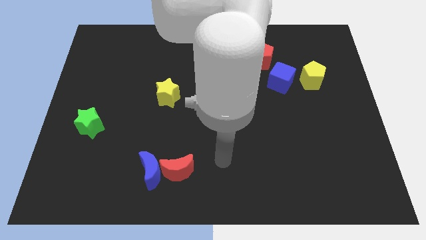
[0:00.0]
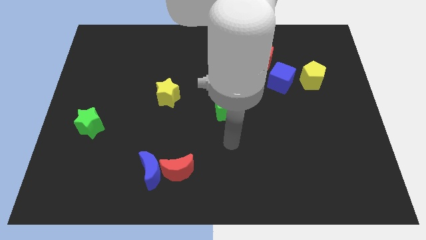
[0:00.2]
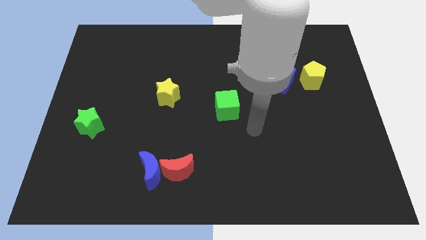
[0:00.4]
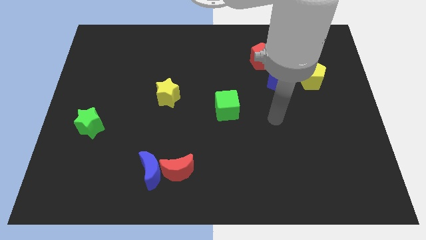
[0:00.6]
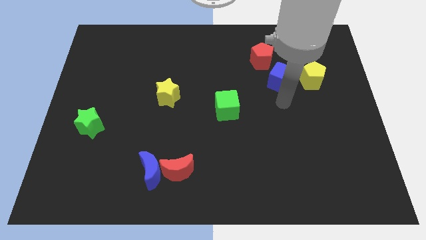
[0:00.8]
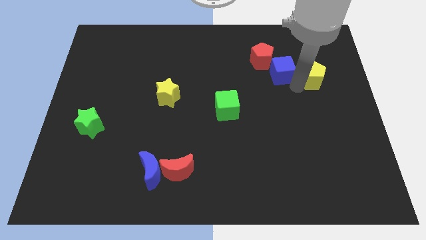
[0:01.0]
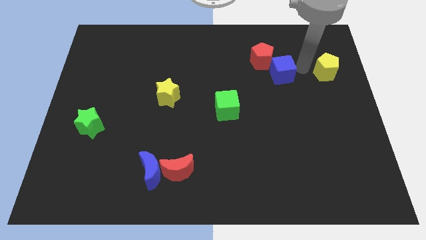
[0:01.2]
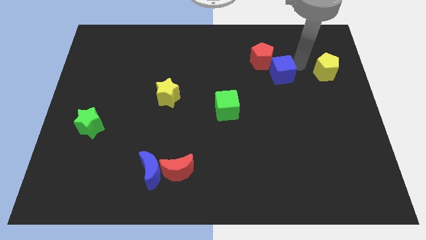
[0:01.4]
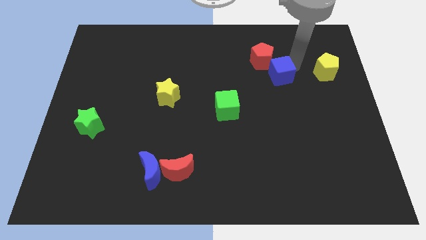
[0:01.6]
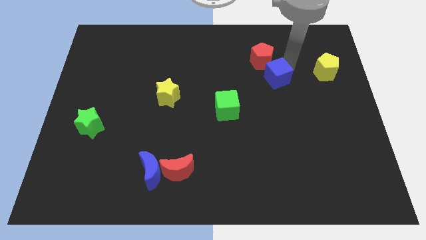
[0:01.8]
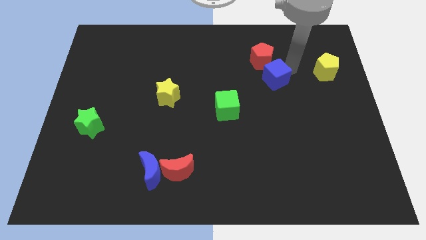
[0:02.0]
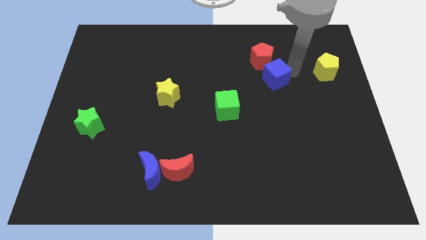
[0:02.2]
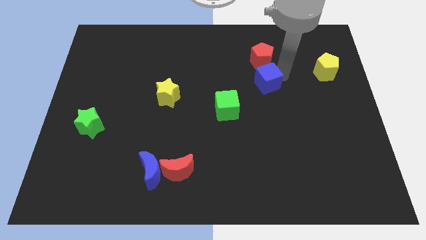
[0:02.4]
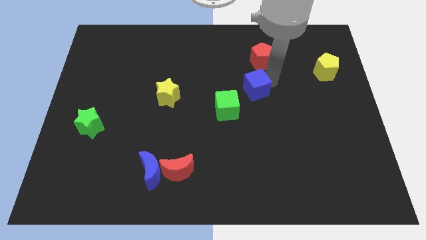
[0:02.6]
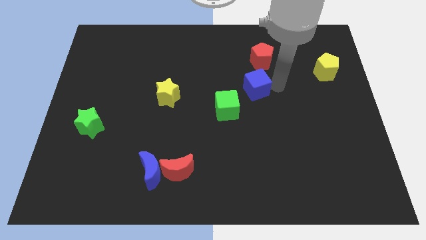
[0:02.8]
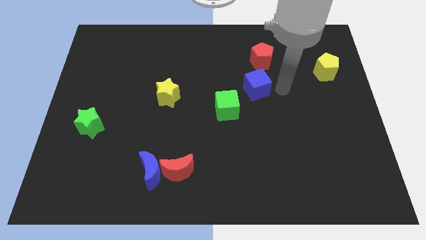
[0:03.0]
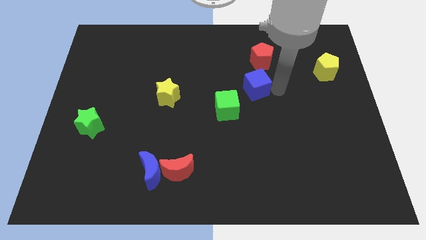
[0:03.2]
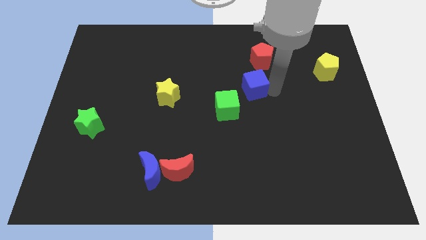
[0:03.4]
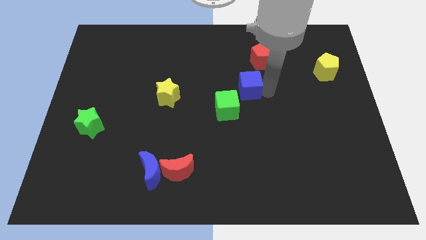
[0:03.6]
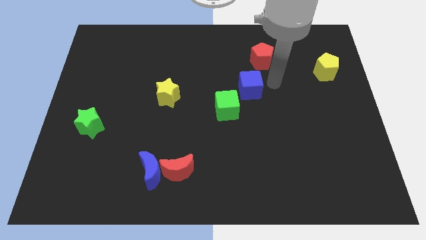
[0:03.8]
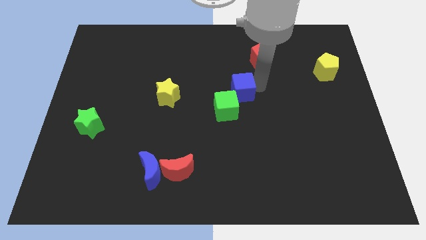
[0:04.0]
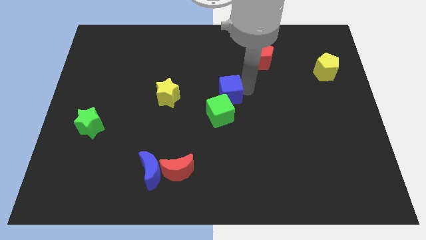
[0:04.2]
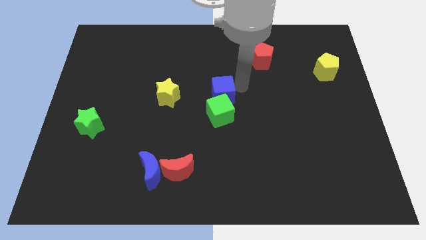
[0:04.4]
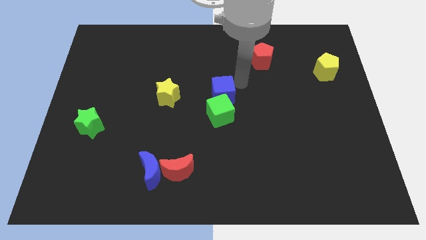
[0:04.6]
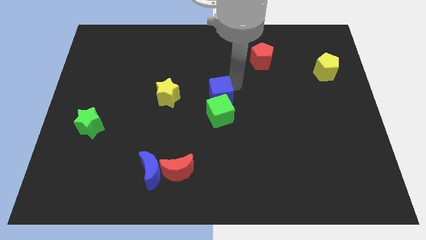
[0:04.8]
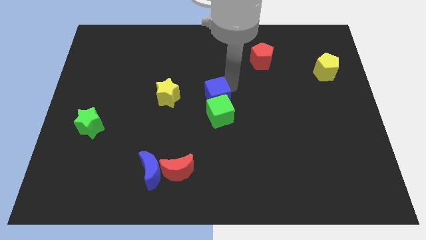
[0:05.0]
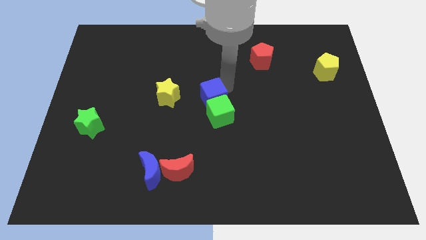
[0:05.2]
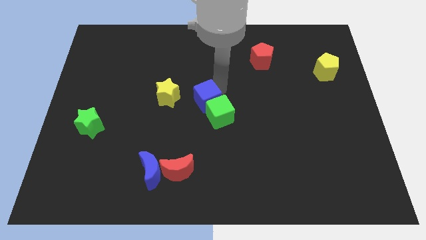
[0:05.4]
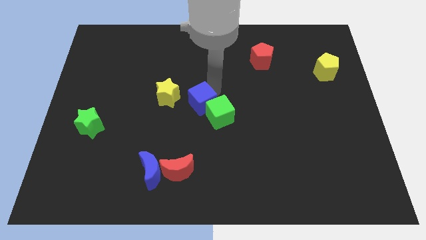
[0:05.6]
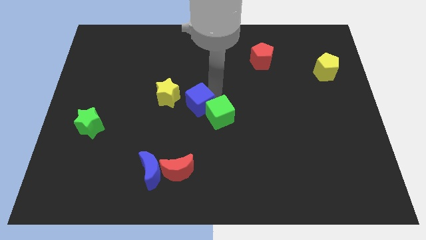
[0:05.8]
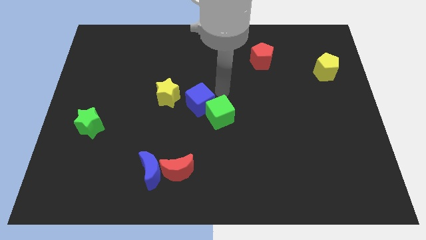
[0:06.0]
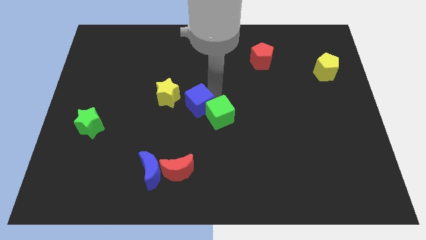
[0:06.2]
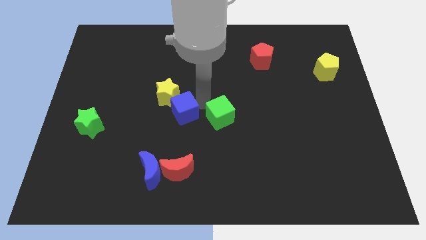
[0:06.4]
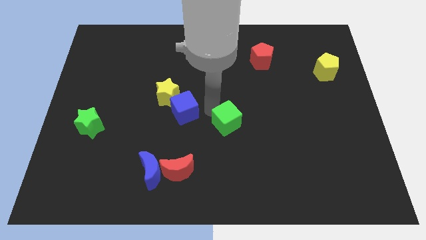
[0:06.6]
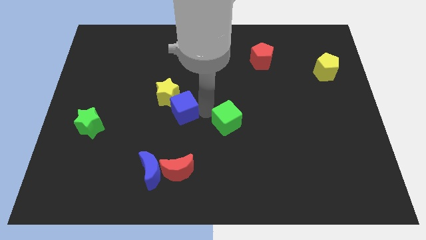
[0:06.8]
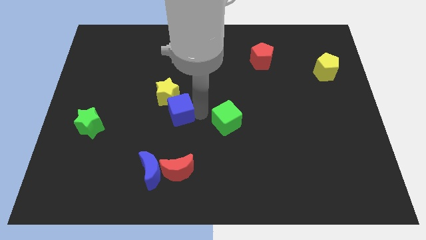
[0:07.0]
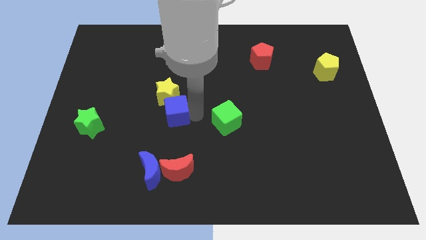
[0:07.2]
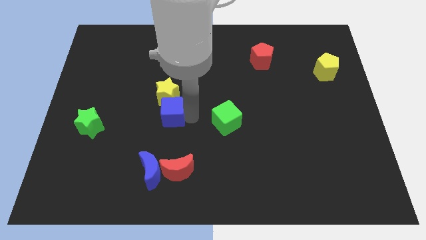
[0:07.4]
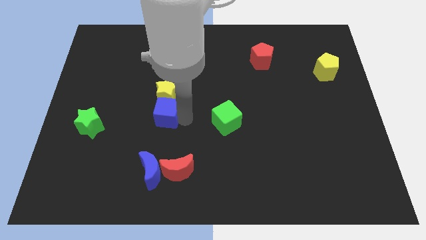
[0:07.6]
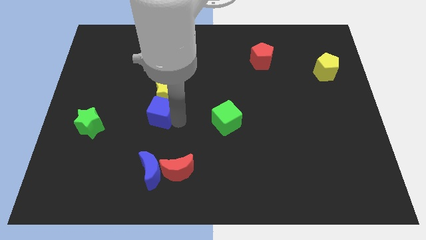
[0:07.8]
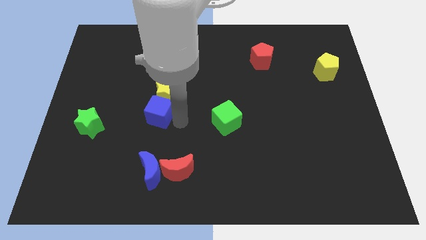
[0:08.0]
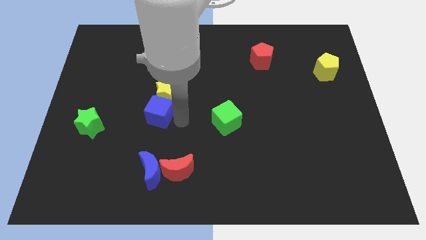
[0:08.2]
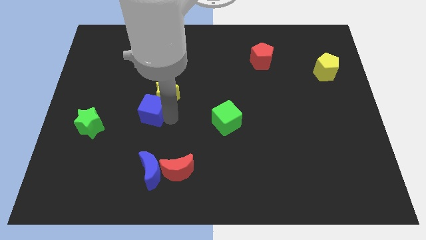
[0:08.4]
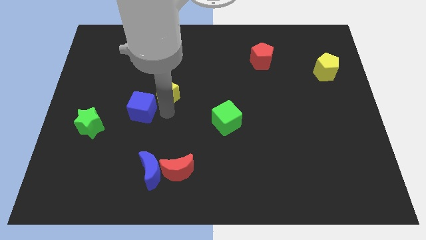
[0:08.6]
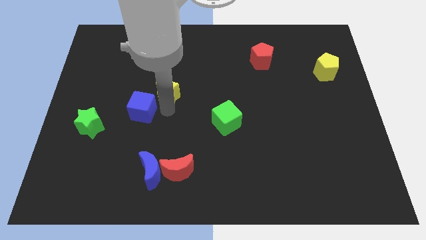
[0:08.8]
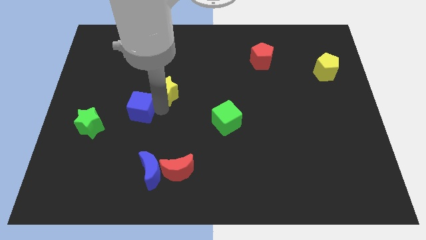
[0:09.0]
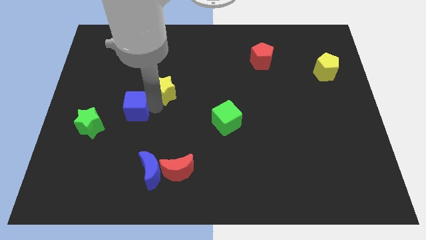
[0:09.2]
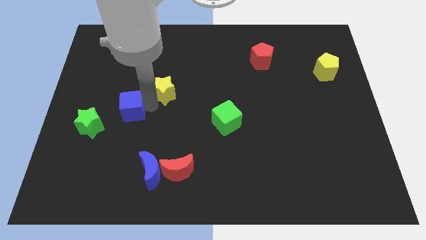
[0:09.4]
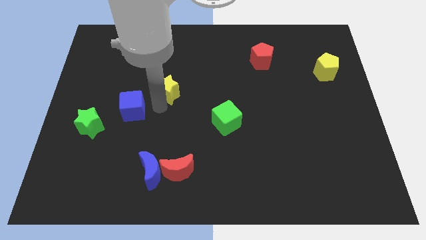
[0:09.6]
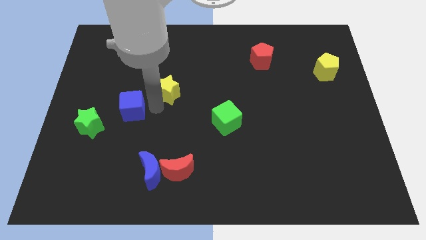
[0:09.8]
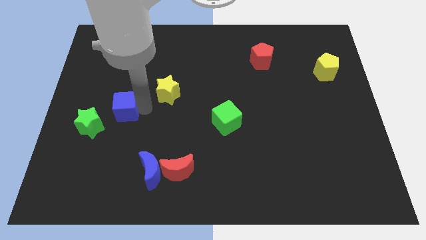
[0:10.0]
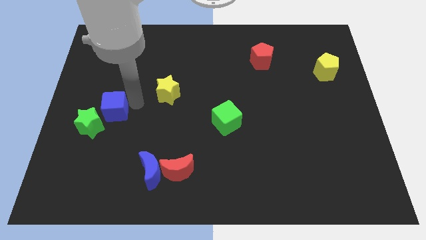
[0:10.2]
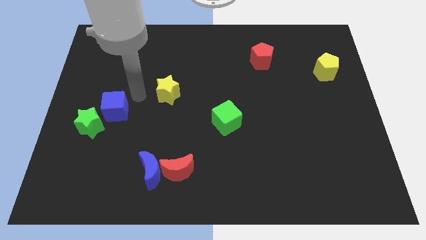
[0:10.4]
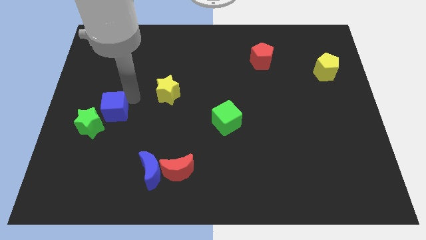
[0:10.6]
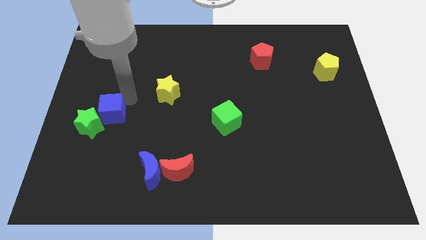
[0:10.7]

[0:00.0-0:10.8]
move the blue cube to the green star

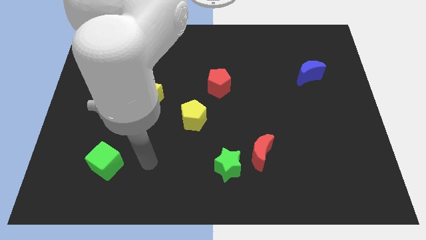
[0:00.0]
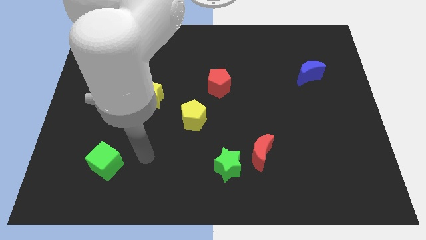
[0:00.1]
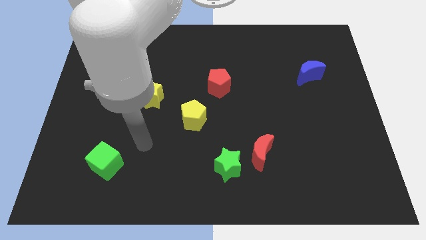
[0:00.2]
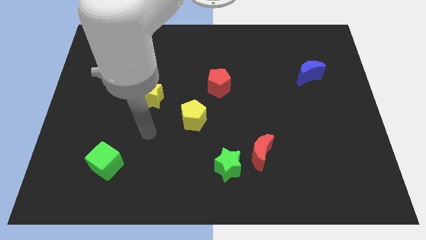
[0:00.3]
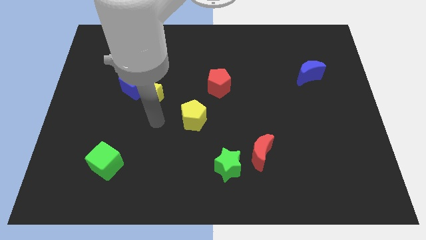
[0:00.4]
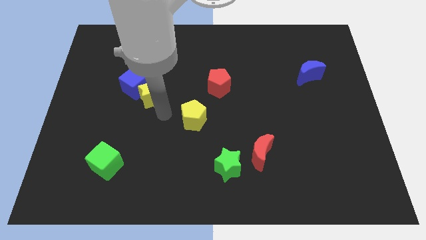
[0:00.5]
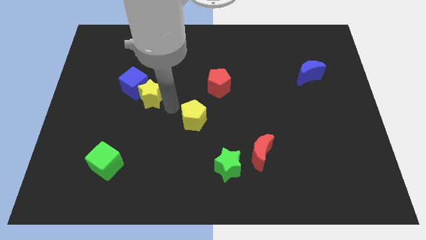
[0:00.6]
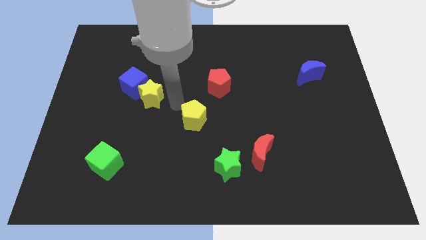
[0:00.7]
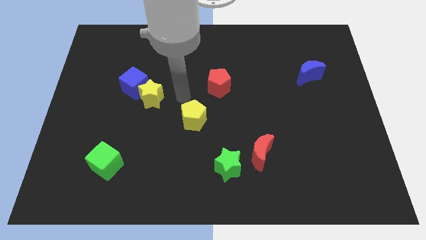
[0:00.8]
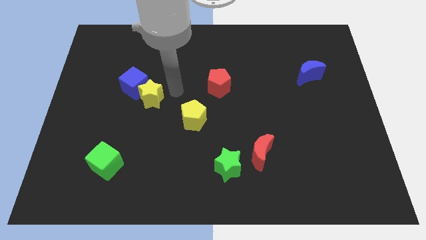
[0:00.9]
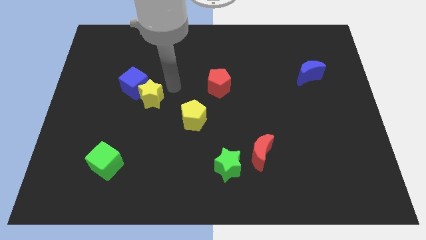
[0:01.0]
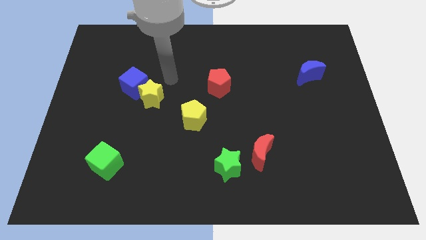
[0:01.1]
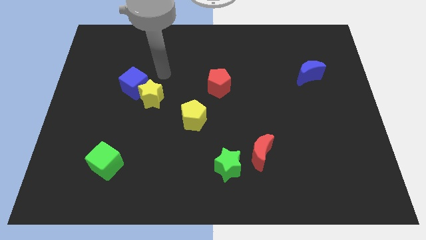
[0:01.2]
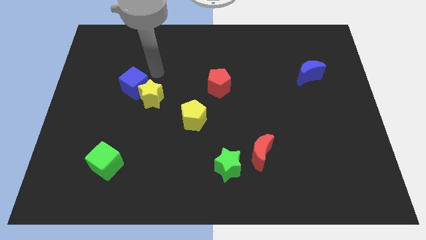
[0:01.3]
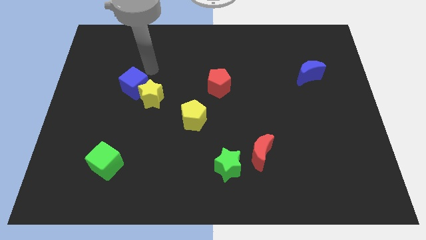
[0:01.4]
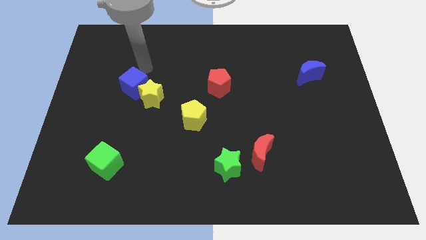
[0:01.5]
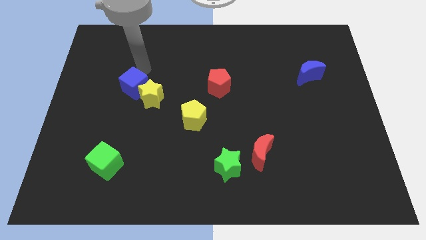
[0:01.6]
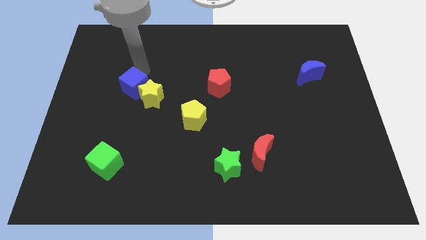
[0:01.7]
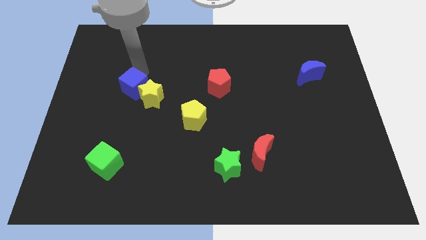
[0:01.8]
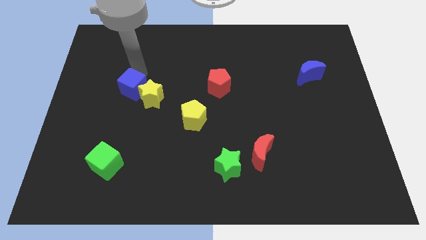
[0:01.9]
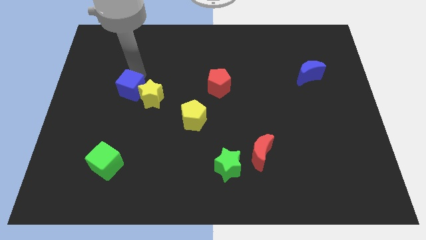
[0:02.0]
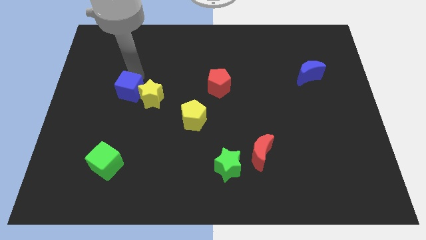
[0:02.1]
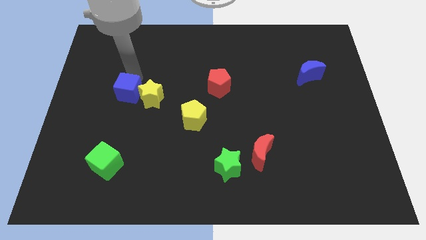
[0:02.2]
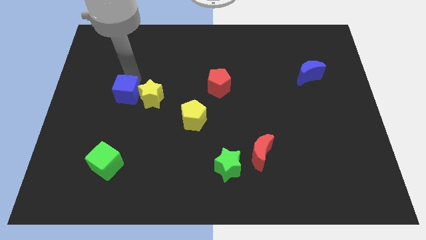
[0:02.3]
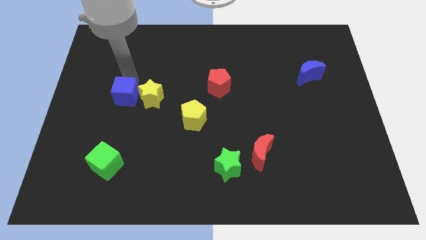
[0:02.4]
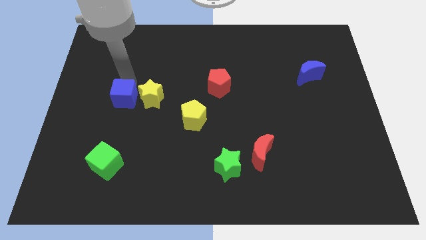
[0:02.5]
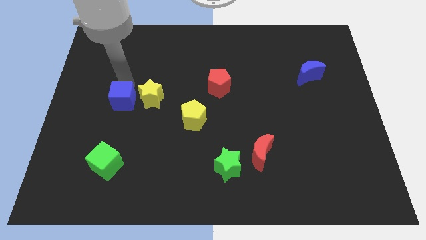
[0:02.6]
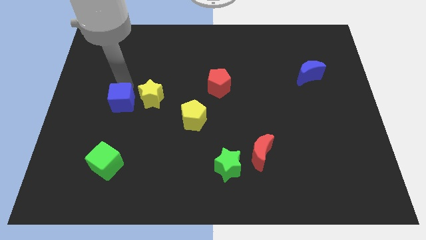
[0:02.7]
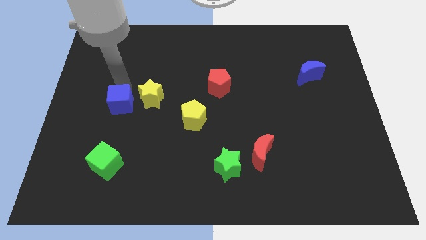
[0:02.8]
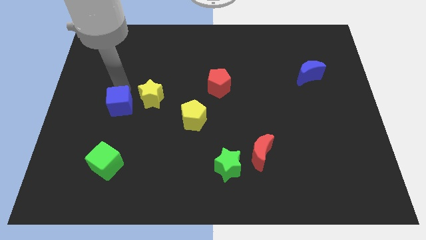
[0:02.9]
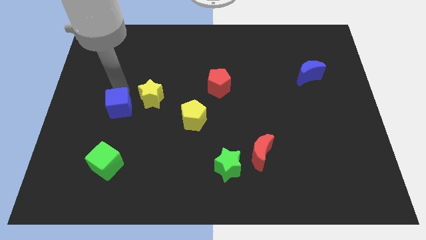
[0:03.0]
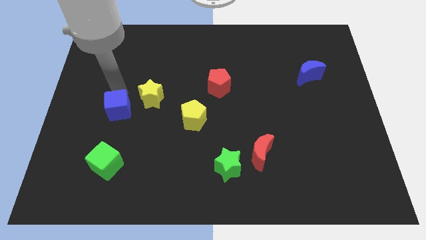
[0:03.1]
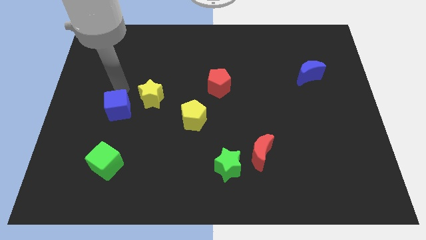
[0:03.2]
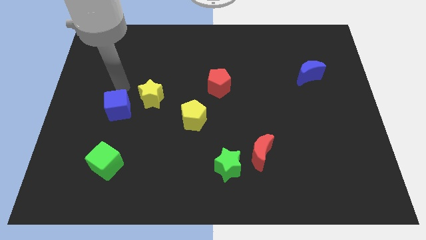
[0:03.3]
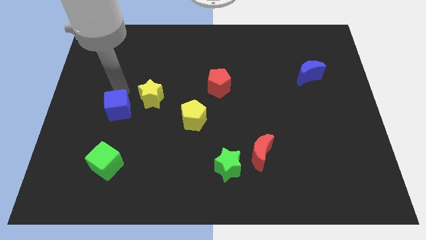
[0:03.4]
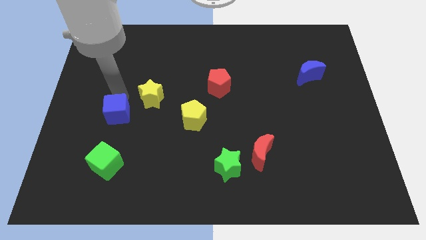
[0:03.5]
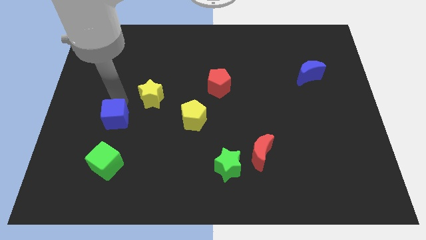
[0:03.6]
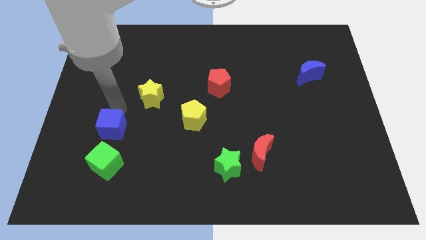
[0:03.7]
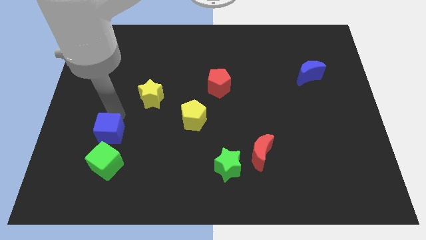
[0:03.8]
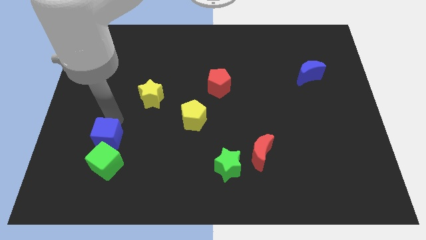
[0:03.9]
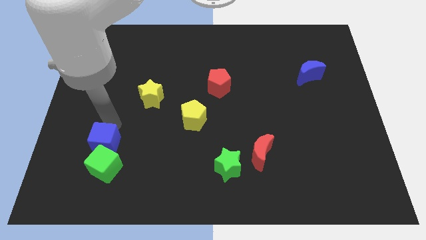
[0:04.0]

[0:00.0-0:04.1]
slide the blue cube next to the green cube
